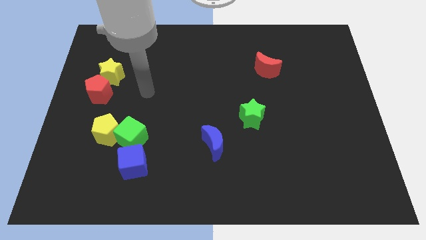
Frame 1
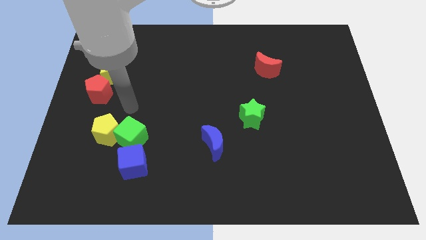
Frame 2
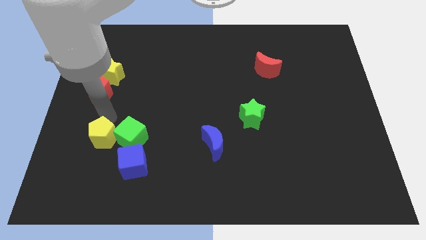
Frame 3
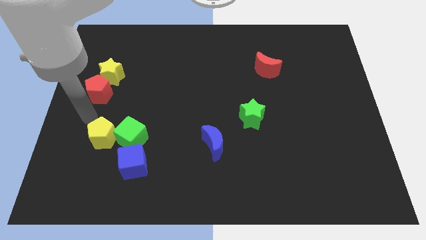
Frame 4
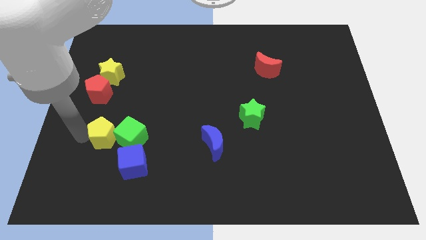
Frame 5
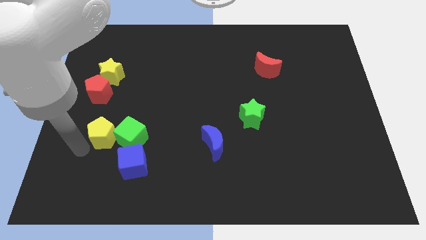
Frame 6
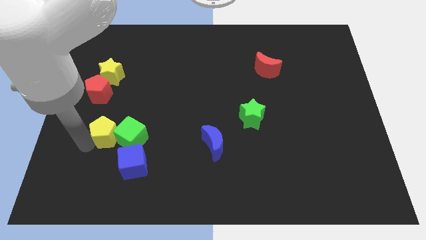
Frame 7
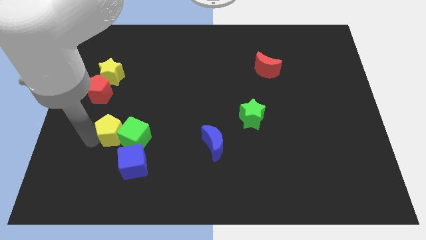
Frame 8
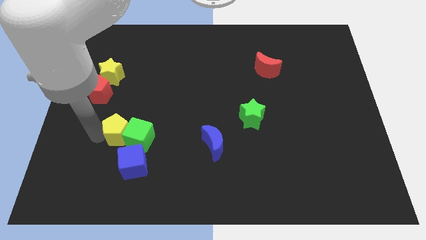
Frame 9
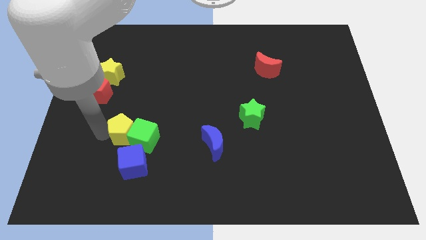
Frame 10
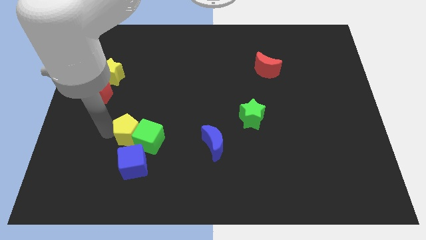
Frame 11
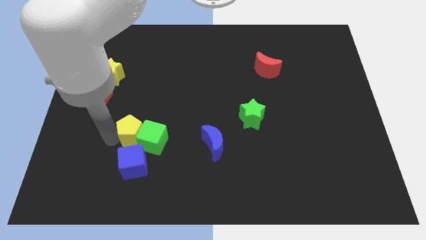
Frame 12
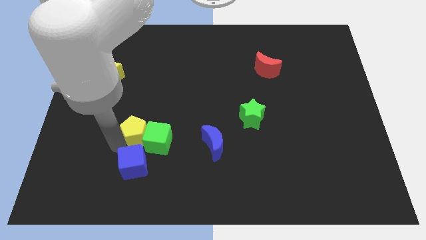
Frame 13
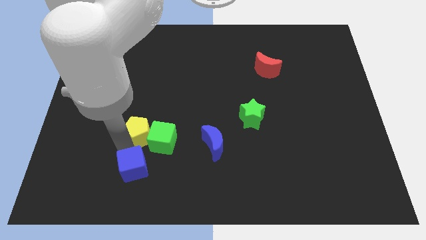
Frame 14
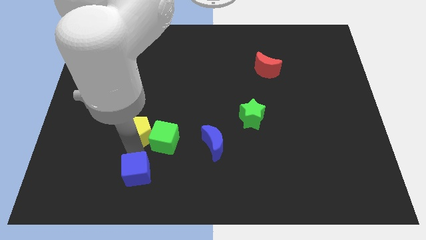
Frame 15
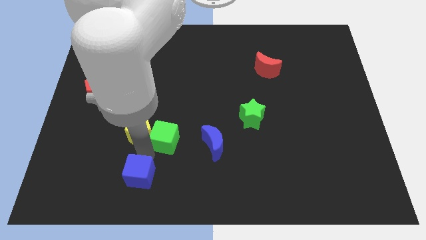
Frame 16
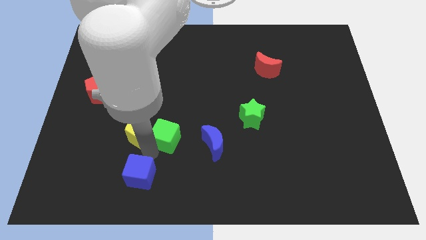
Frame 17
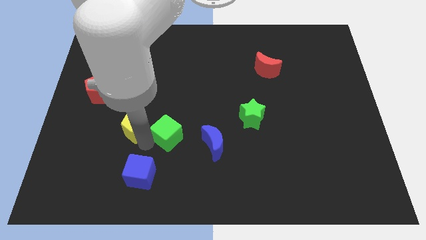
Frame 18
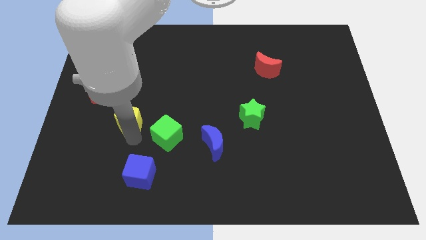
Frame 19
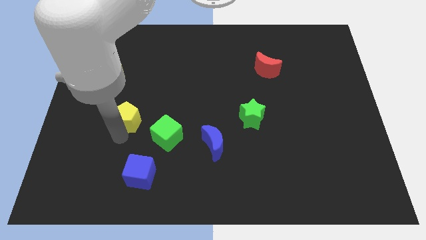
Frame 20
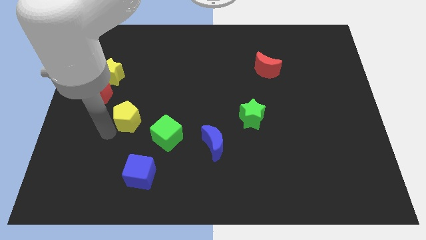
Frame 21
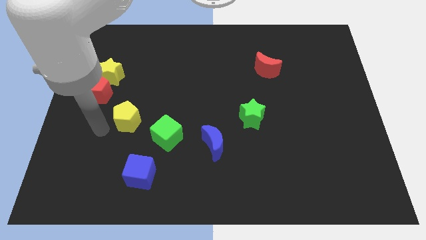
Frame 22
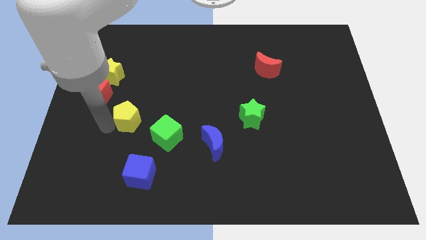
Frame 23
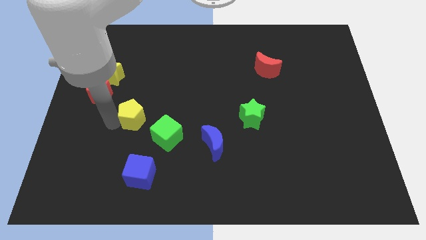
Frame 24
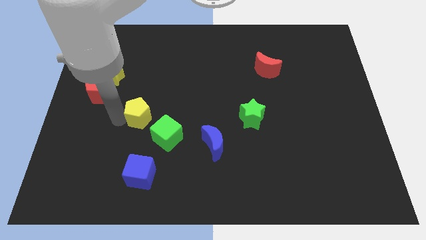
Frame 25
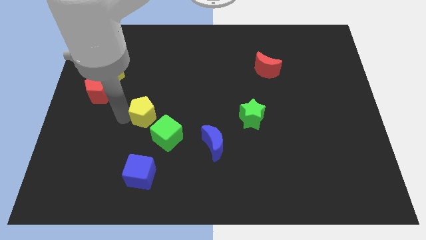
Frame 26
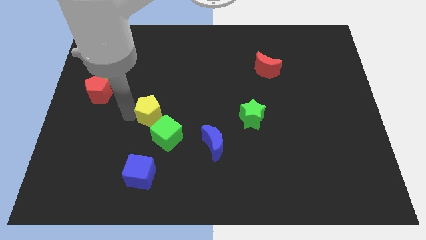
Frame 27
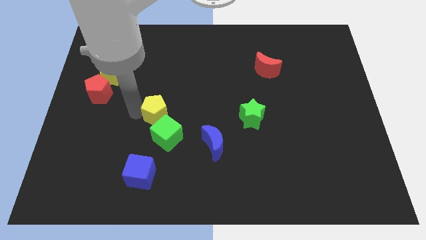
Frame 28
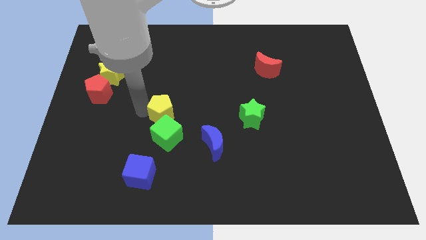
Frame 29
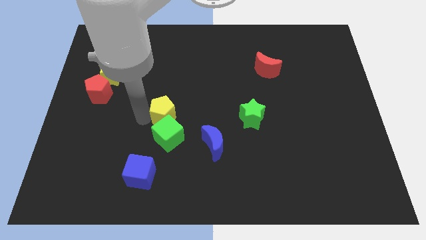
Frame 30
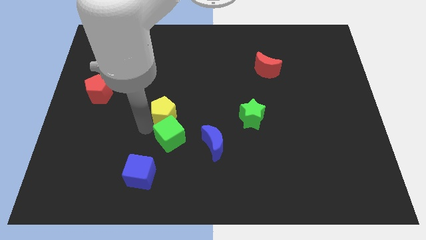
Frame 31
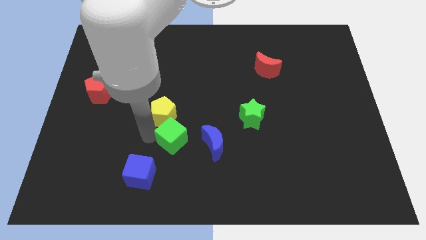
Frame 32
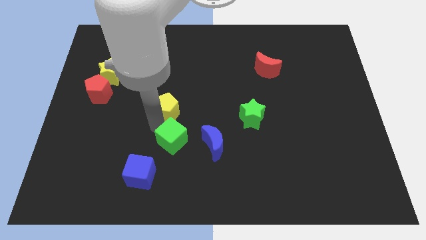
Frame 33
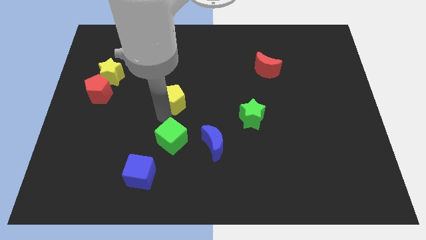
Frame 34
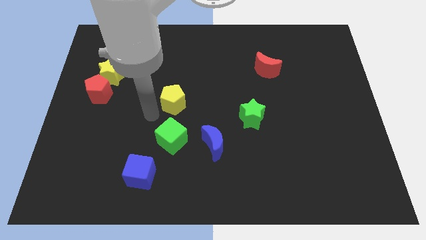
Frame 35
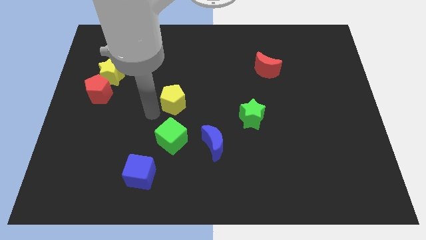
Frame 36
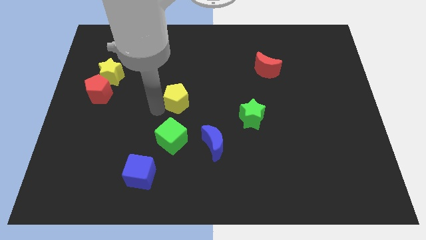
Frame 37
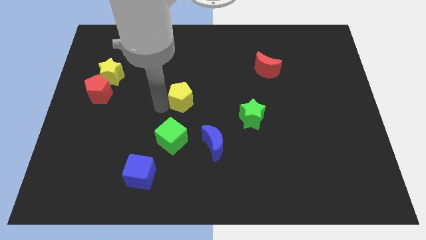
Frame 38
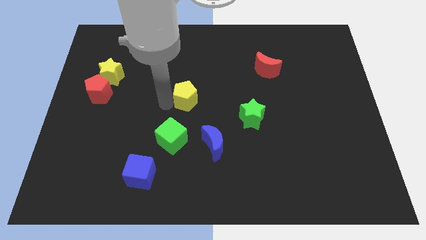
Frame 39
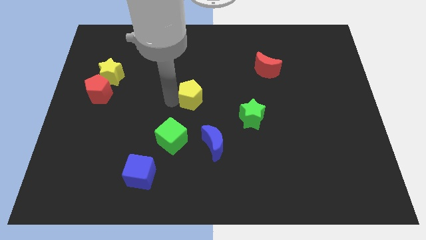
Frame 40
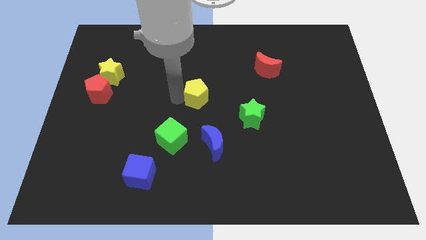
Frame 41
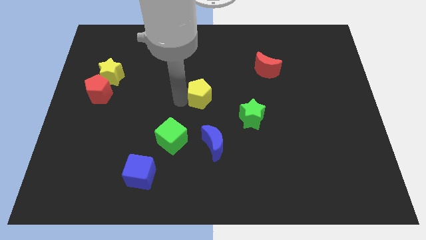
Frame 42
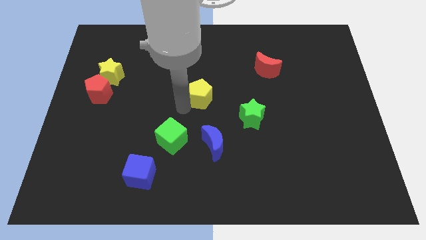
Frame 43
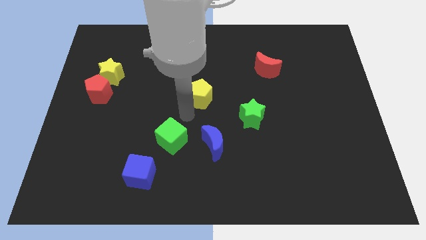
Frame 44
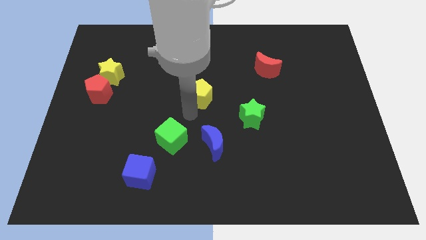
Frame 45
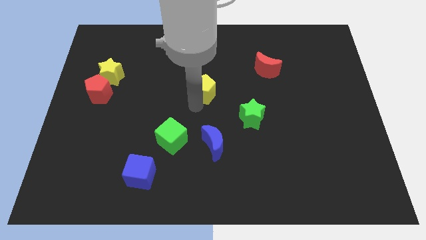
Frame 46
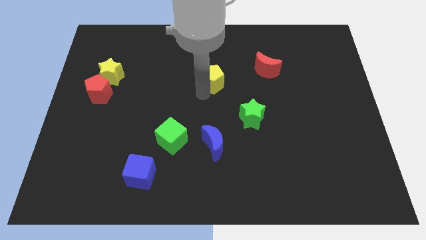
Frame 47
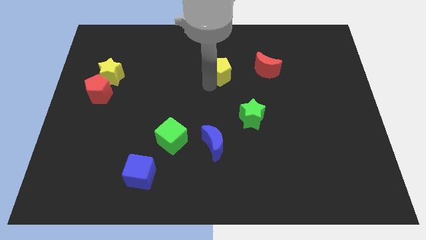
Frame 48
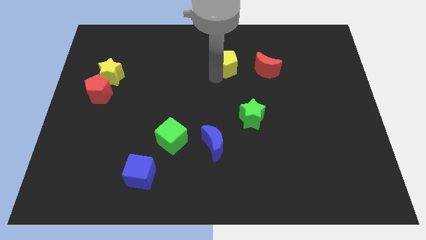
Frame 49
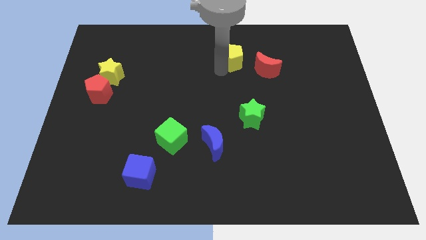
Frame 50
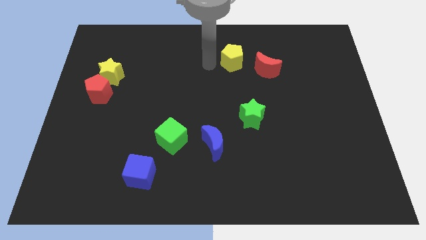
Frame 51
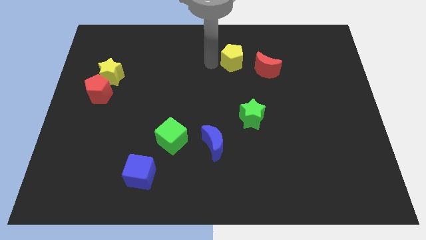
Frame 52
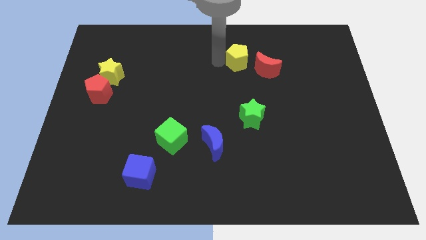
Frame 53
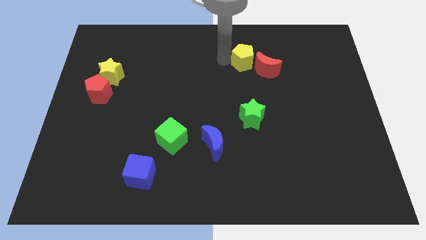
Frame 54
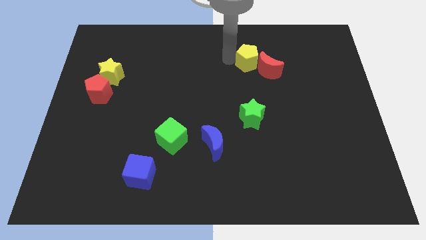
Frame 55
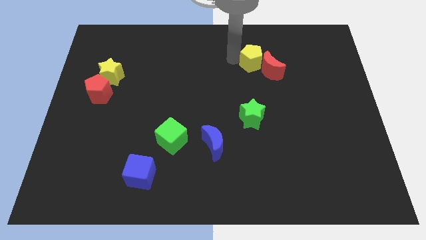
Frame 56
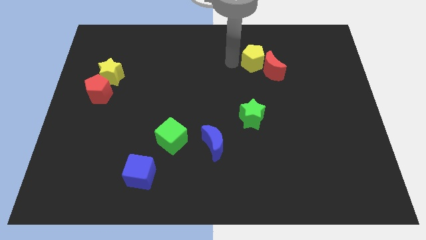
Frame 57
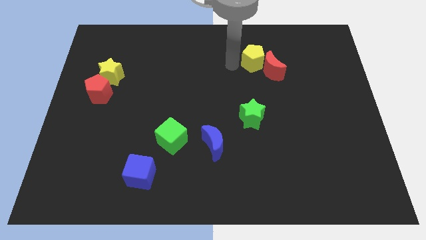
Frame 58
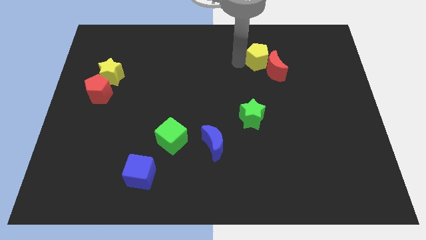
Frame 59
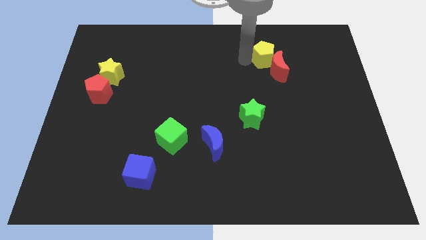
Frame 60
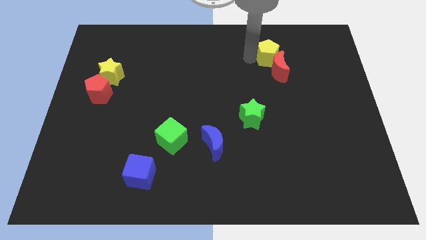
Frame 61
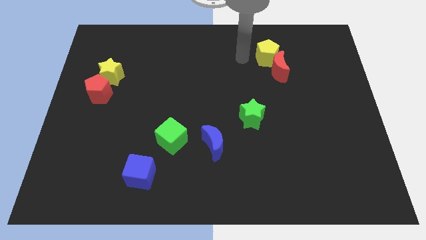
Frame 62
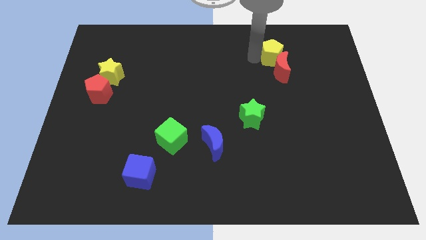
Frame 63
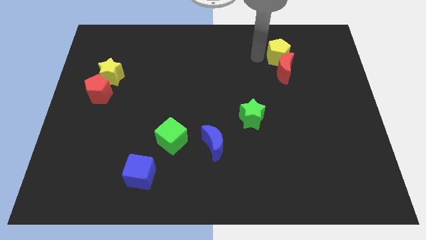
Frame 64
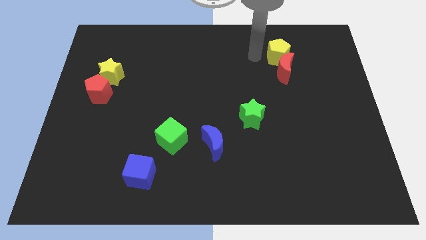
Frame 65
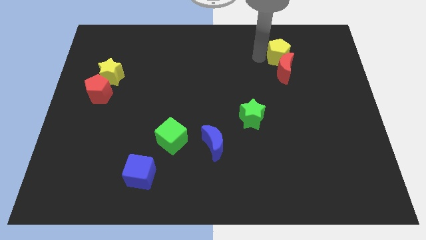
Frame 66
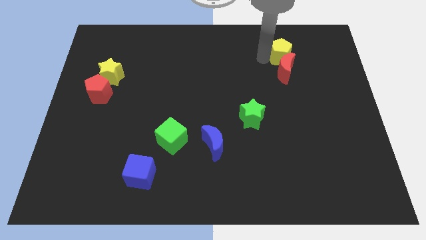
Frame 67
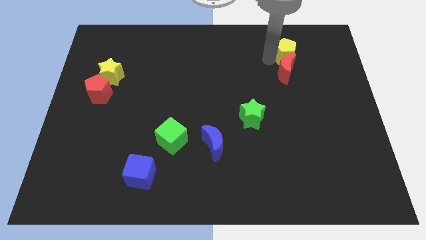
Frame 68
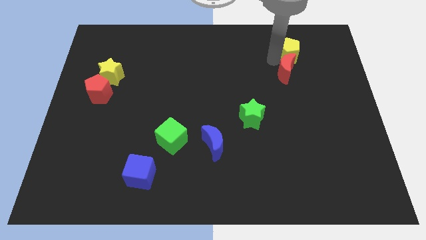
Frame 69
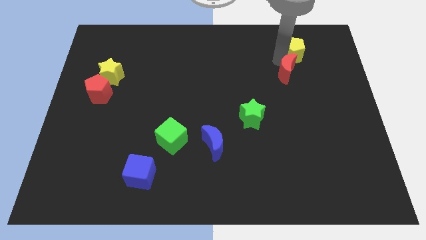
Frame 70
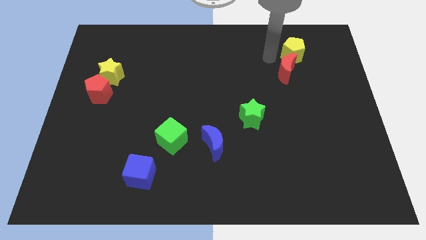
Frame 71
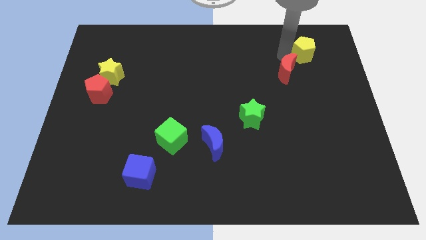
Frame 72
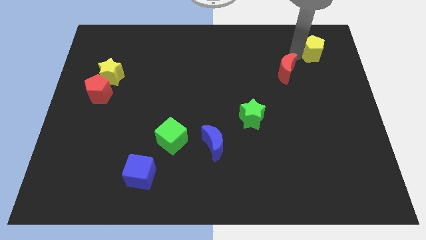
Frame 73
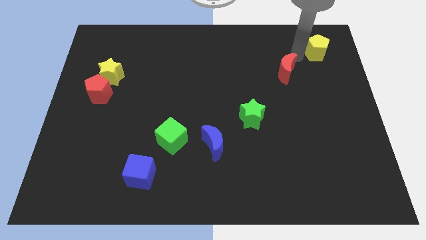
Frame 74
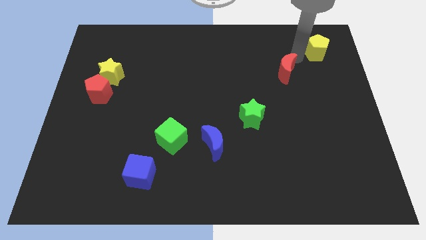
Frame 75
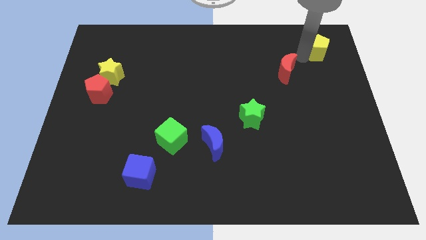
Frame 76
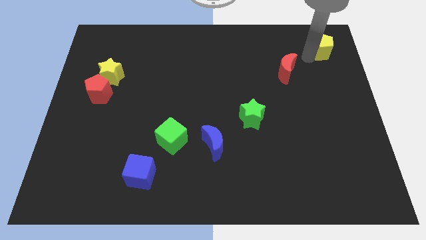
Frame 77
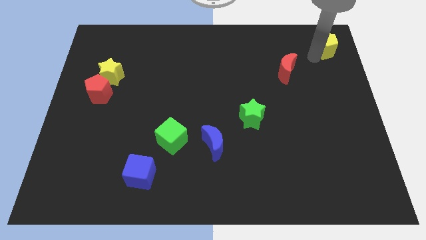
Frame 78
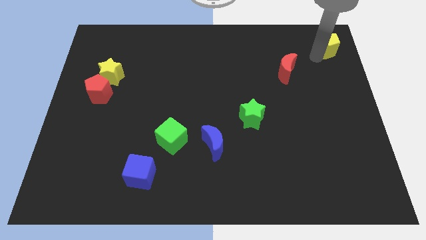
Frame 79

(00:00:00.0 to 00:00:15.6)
move the yellow pentagon to the top right
